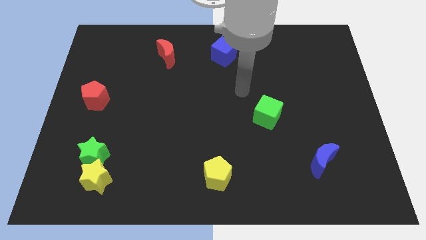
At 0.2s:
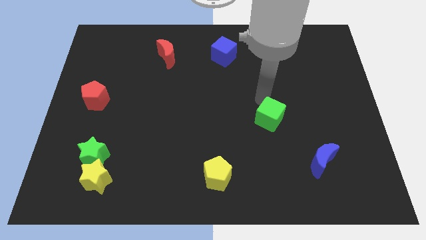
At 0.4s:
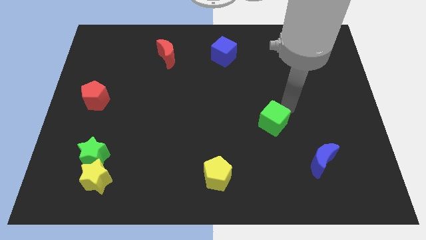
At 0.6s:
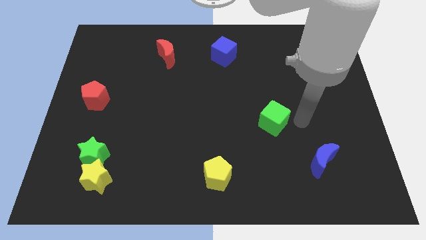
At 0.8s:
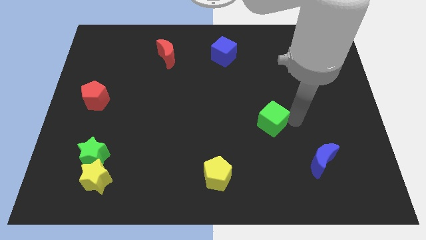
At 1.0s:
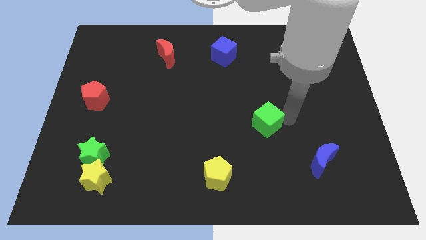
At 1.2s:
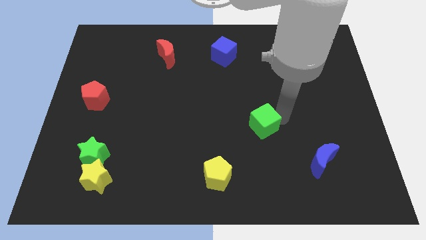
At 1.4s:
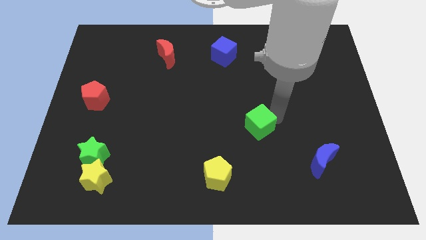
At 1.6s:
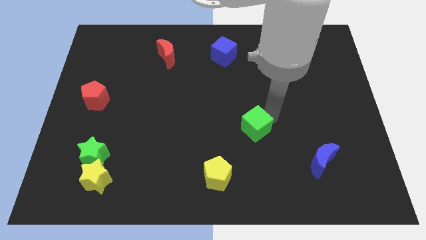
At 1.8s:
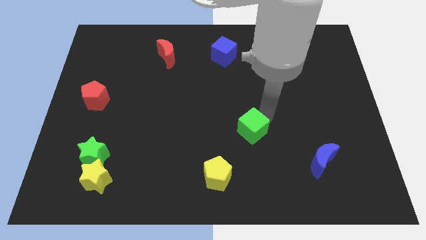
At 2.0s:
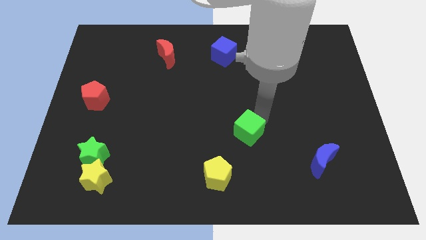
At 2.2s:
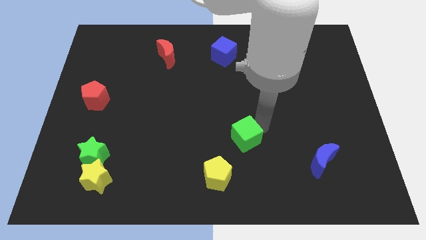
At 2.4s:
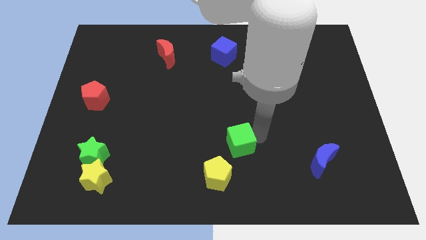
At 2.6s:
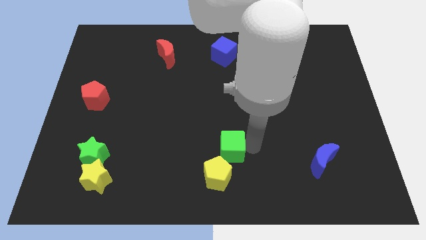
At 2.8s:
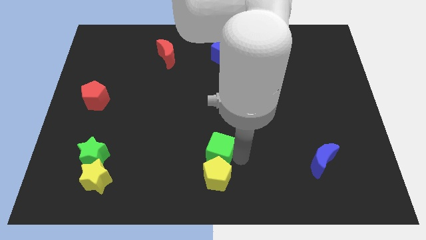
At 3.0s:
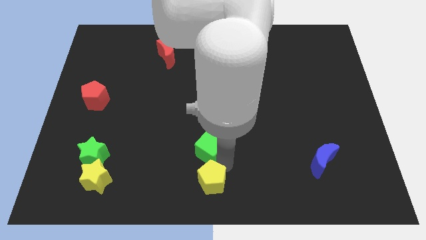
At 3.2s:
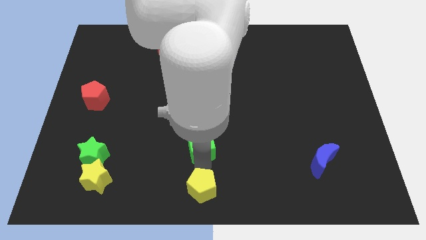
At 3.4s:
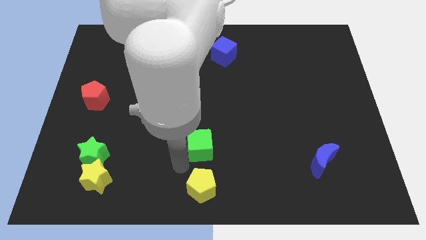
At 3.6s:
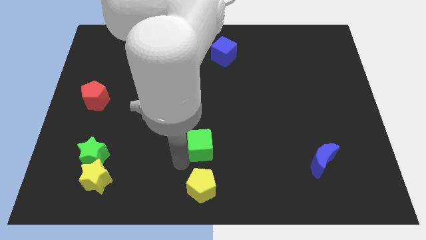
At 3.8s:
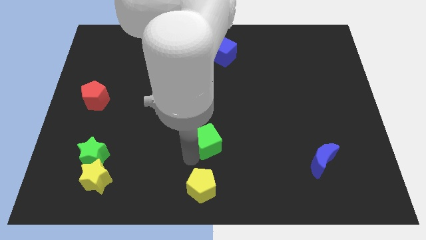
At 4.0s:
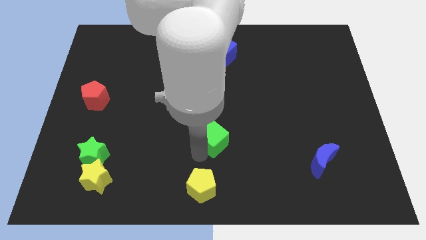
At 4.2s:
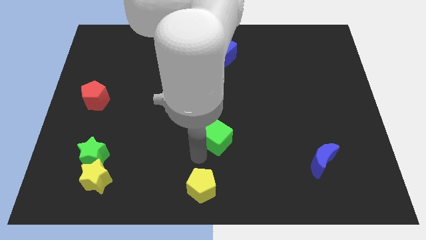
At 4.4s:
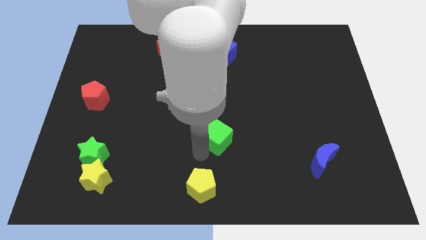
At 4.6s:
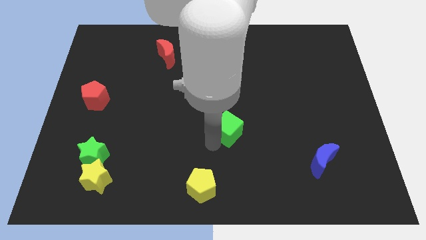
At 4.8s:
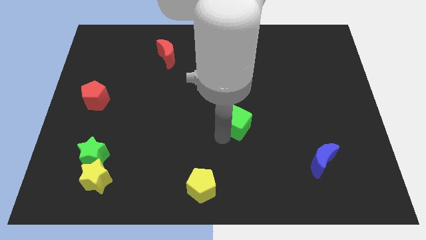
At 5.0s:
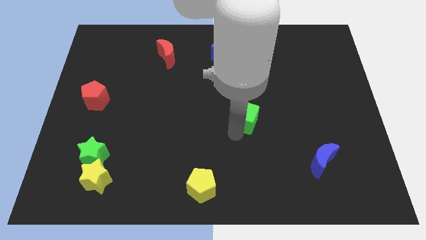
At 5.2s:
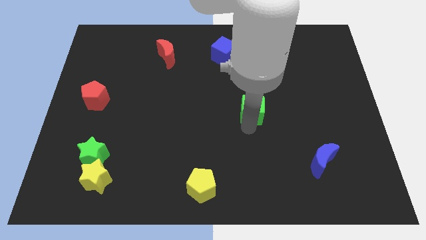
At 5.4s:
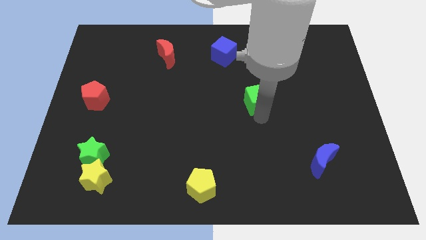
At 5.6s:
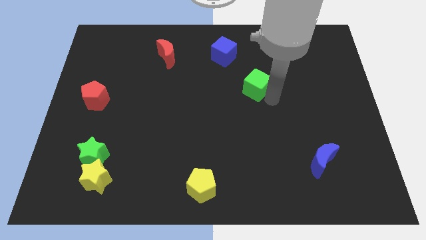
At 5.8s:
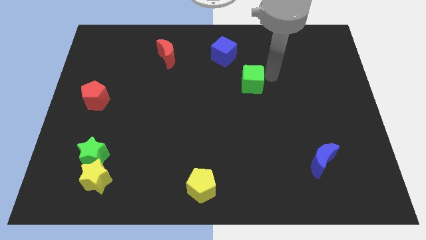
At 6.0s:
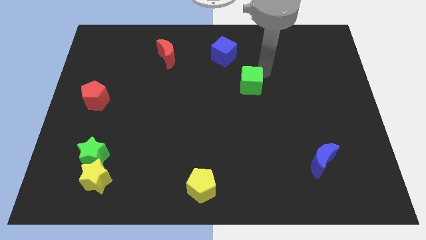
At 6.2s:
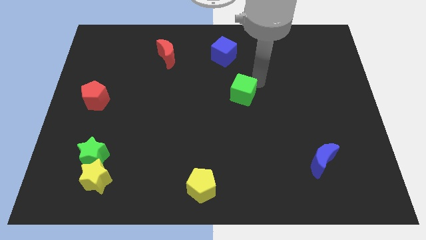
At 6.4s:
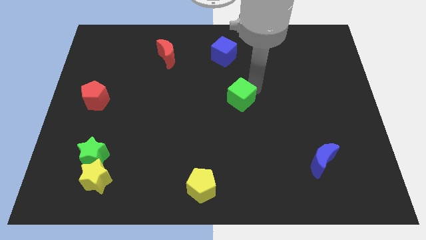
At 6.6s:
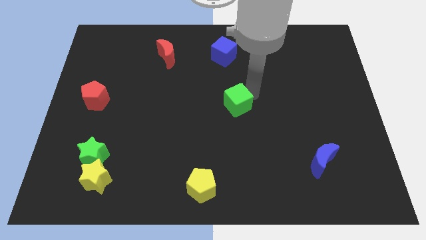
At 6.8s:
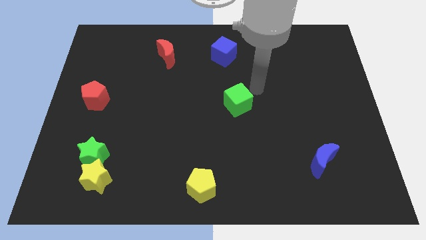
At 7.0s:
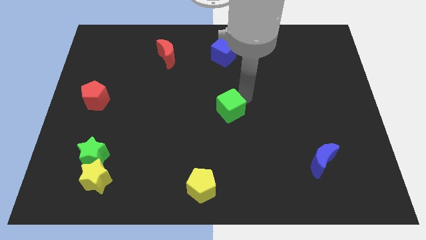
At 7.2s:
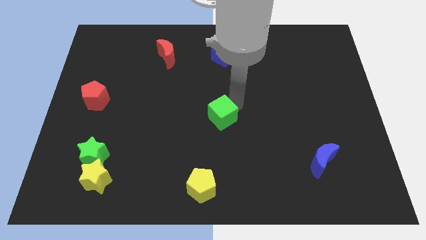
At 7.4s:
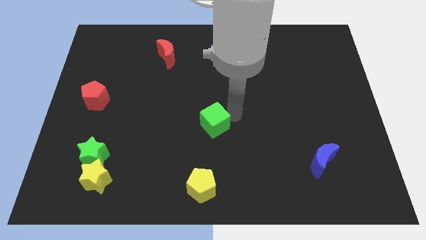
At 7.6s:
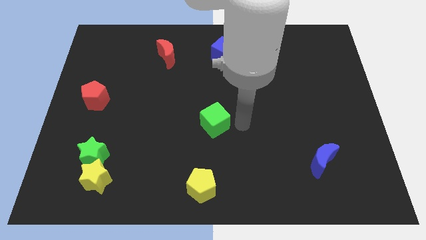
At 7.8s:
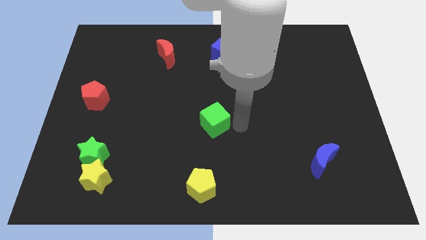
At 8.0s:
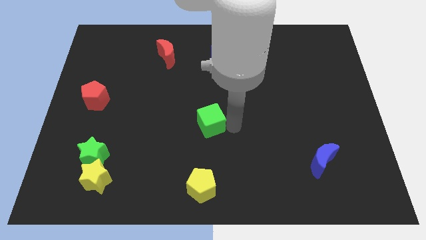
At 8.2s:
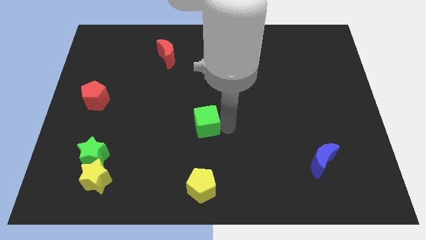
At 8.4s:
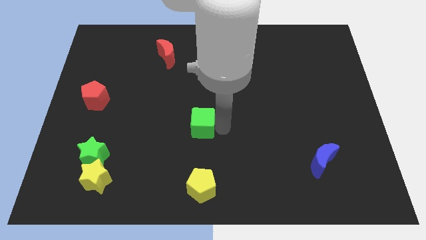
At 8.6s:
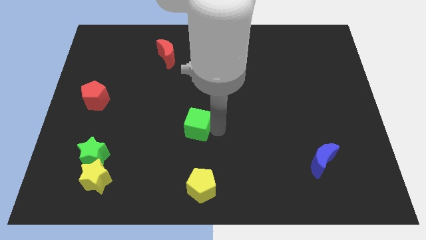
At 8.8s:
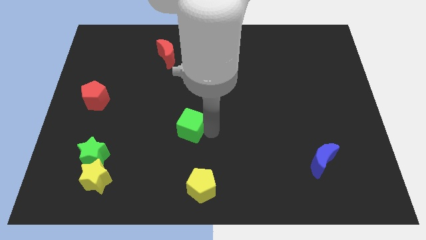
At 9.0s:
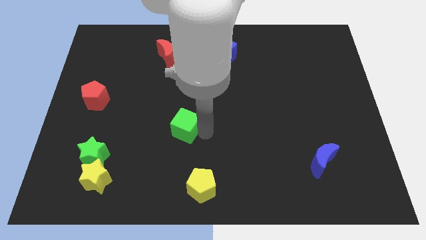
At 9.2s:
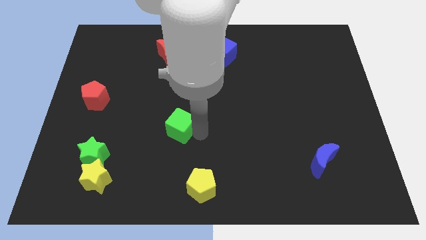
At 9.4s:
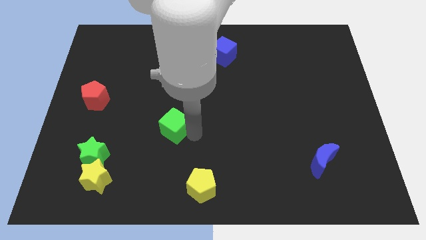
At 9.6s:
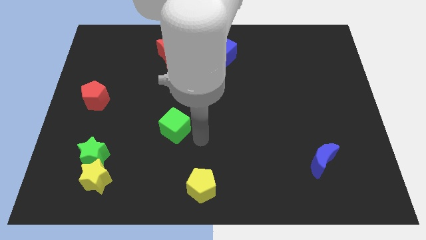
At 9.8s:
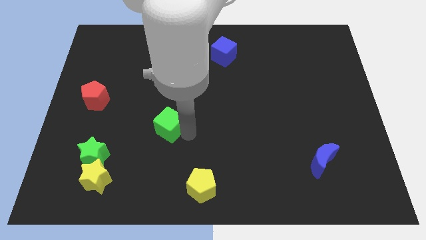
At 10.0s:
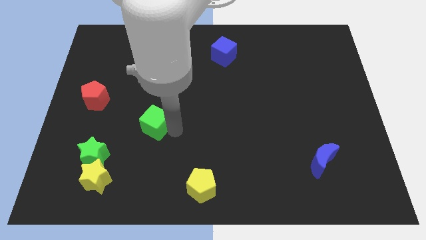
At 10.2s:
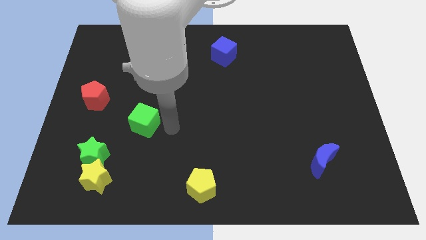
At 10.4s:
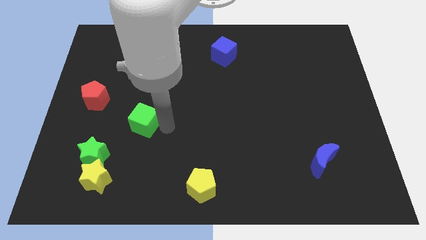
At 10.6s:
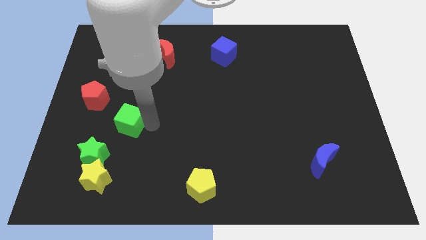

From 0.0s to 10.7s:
move the green cube to the bottom right side of the red pentagon

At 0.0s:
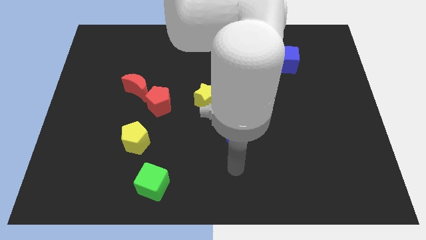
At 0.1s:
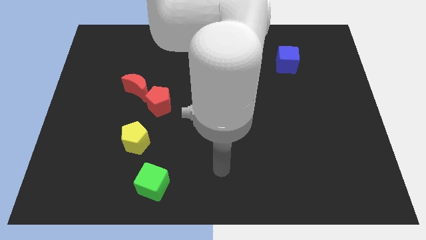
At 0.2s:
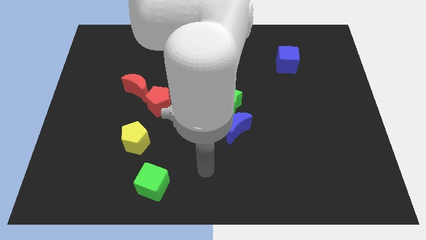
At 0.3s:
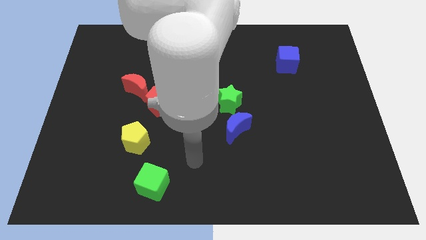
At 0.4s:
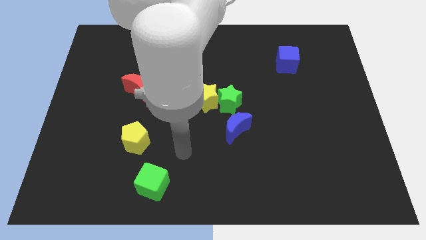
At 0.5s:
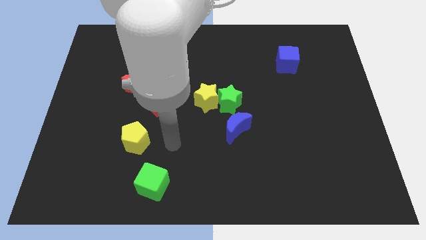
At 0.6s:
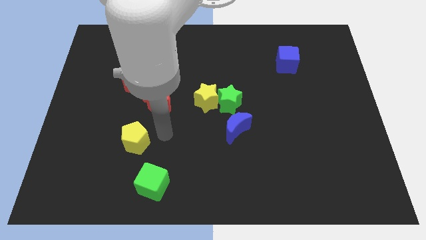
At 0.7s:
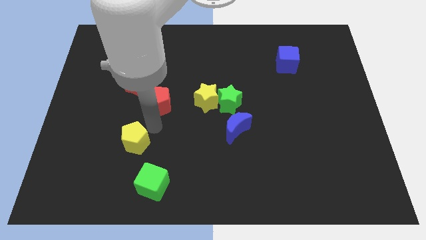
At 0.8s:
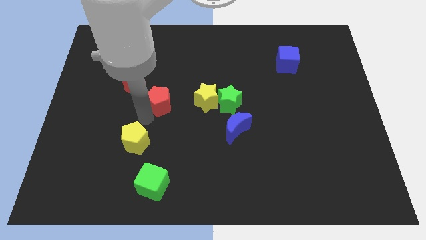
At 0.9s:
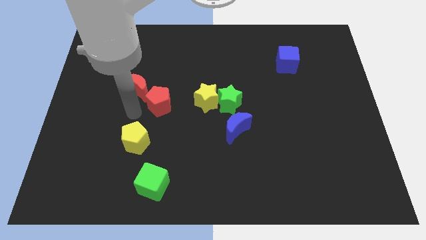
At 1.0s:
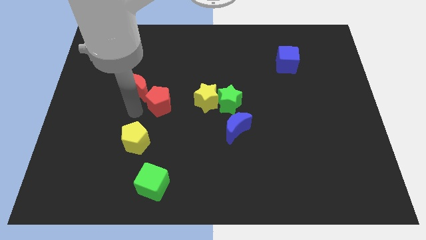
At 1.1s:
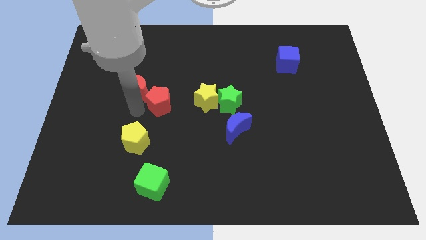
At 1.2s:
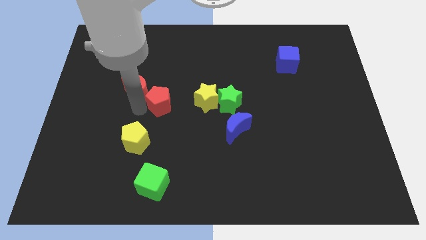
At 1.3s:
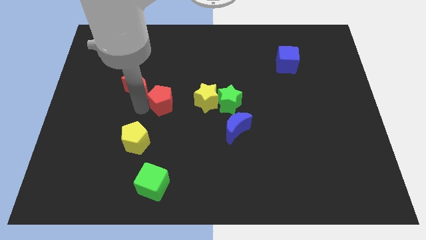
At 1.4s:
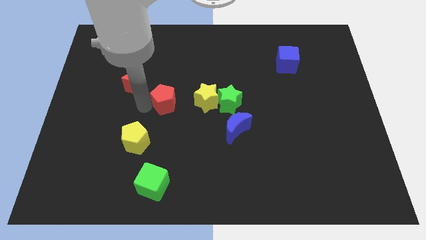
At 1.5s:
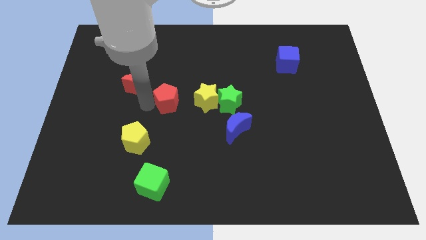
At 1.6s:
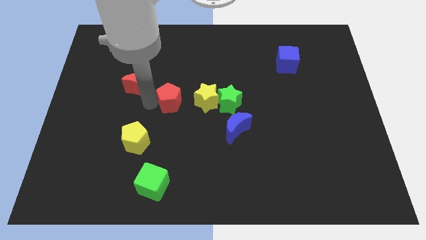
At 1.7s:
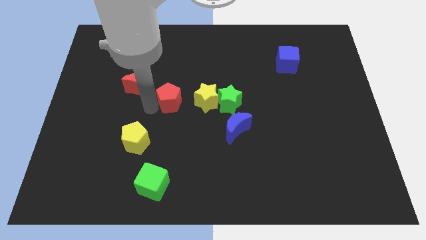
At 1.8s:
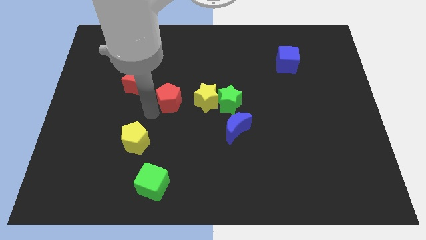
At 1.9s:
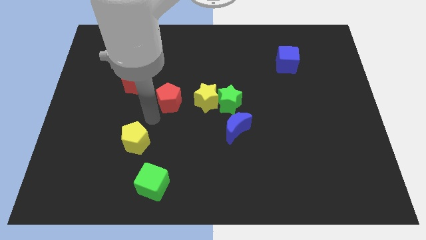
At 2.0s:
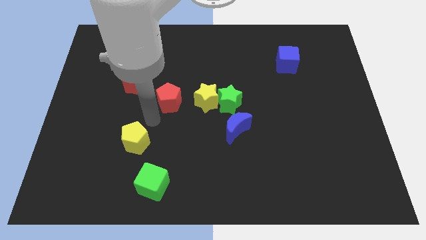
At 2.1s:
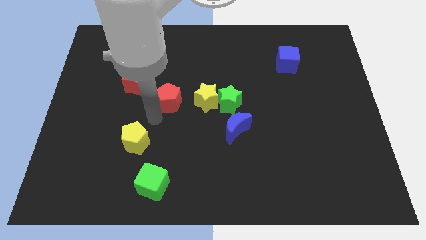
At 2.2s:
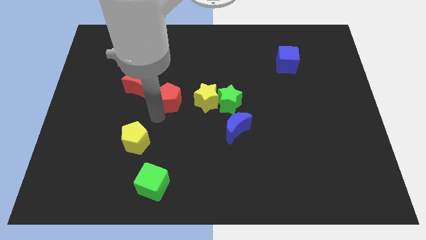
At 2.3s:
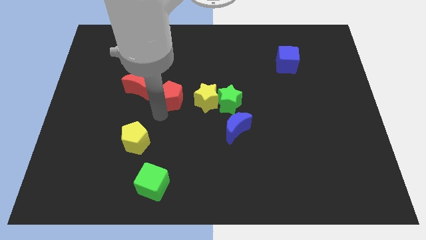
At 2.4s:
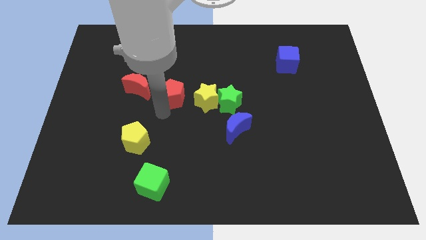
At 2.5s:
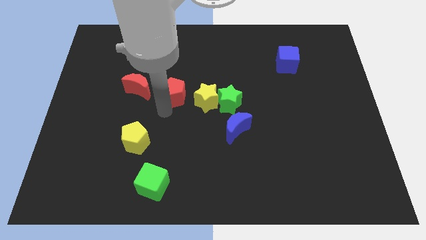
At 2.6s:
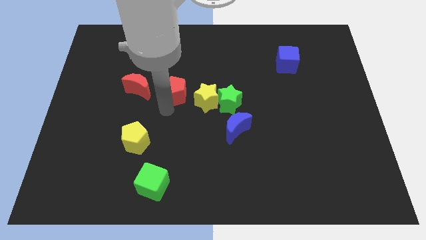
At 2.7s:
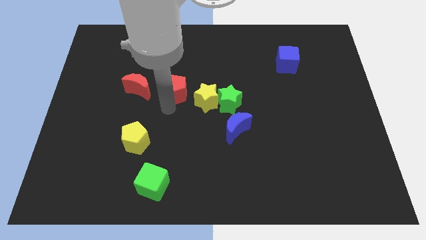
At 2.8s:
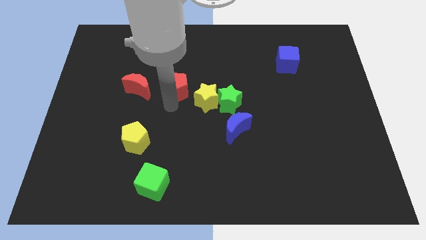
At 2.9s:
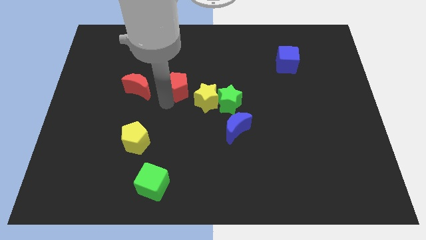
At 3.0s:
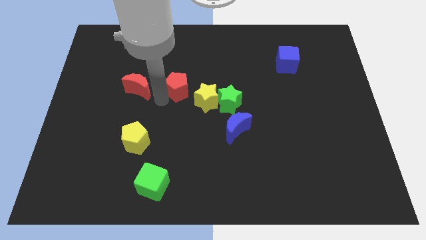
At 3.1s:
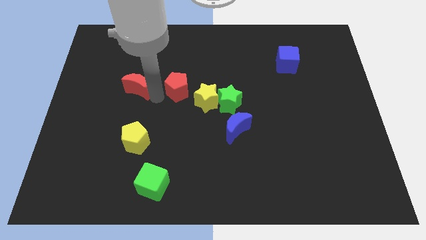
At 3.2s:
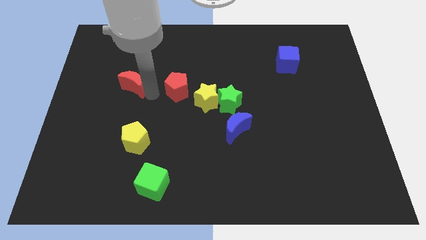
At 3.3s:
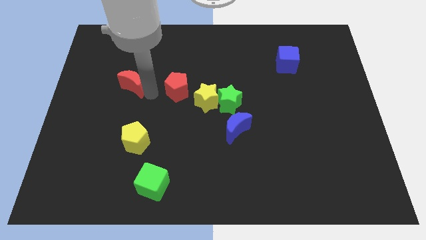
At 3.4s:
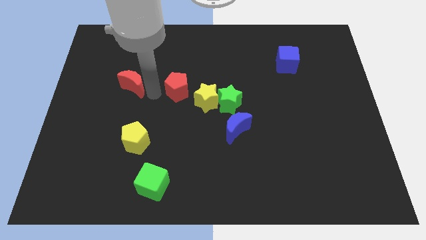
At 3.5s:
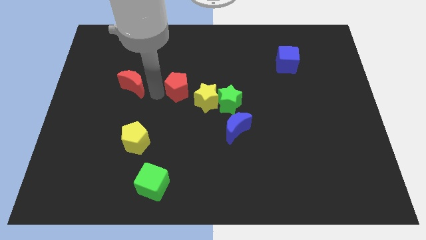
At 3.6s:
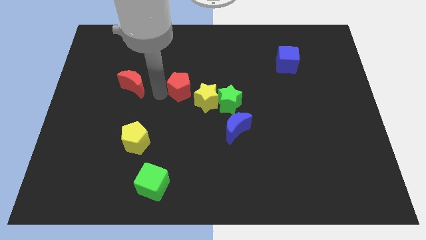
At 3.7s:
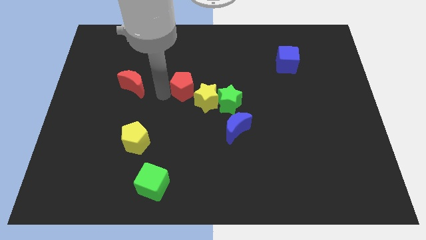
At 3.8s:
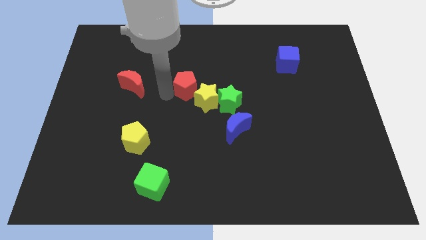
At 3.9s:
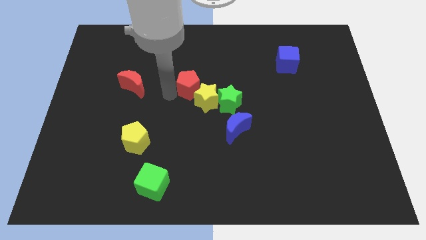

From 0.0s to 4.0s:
push the red pentagon diagonally up and to the left of the green star
